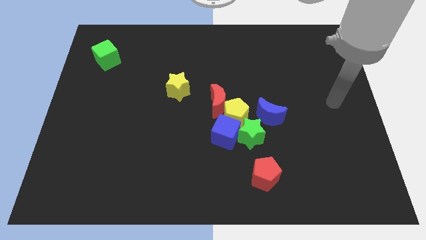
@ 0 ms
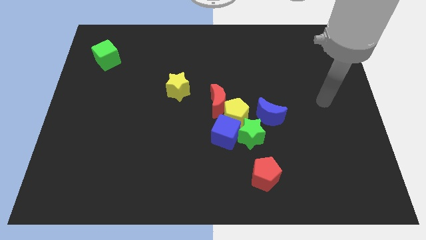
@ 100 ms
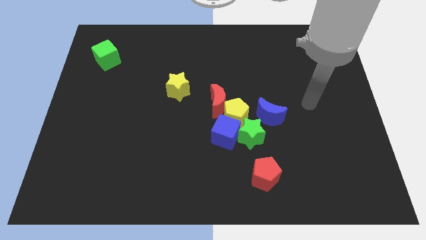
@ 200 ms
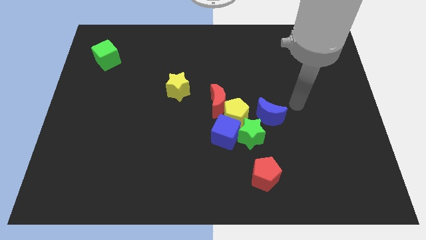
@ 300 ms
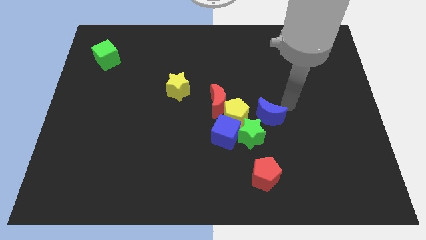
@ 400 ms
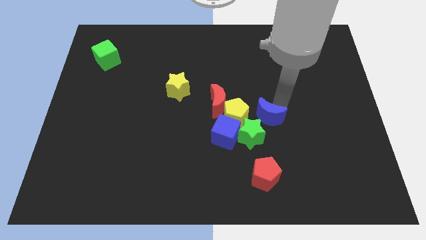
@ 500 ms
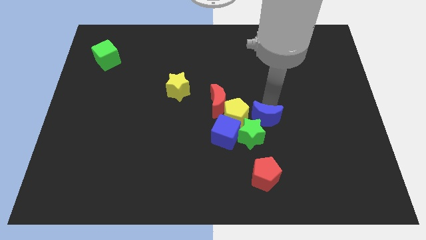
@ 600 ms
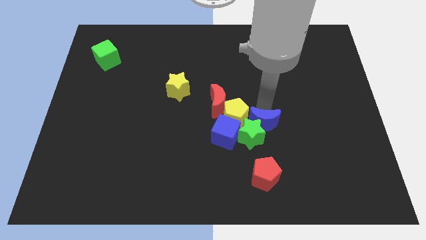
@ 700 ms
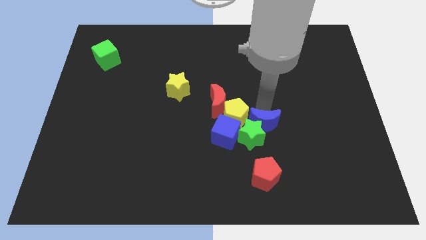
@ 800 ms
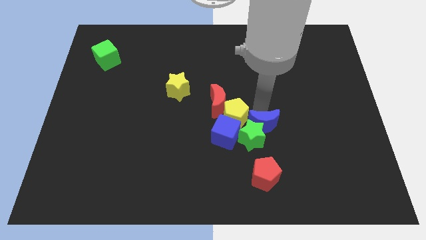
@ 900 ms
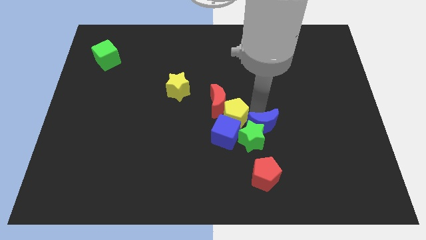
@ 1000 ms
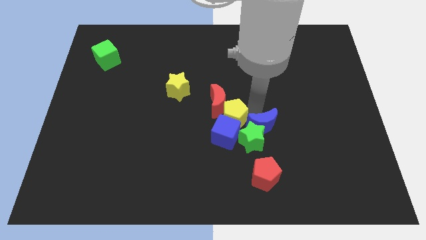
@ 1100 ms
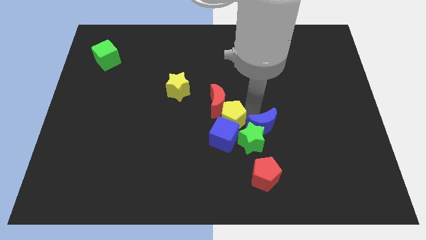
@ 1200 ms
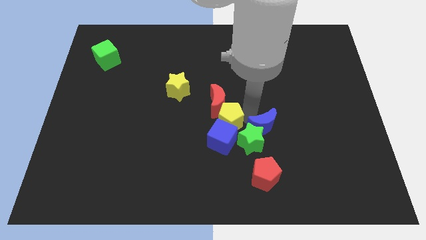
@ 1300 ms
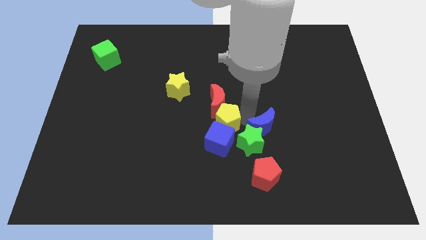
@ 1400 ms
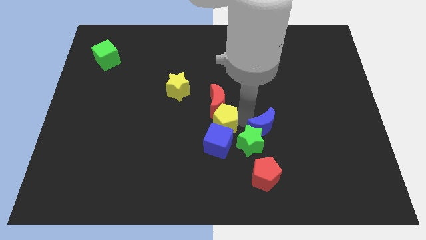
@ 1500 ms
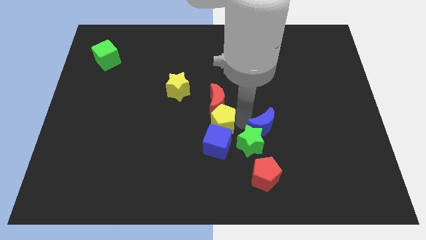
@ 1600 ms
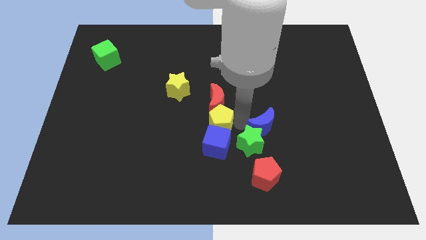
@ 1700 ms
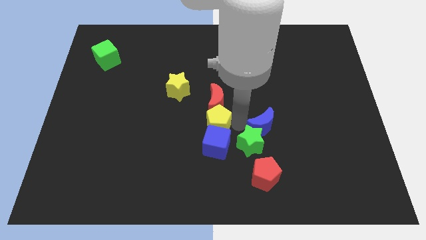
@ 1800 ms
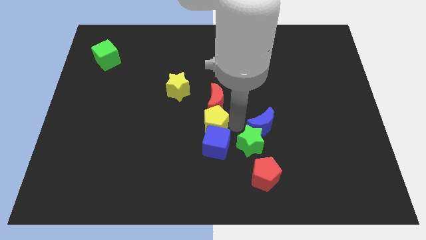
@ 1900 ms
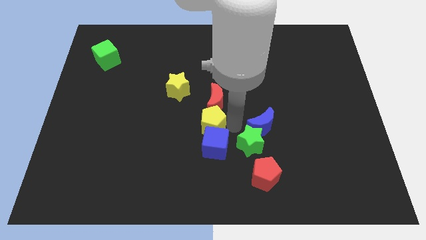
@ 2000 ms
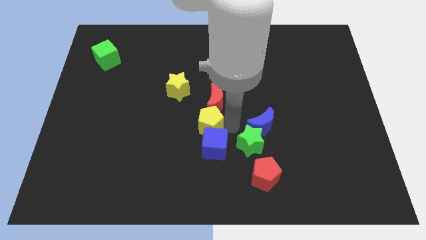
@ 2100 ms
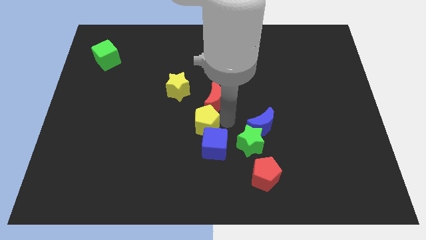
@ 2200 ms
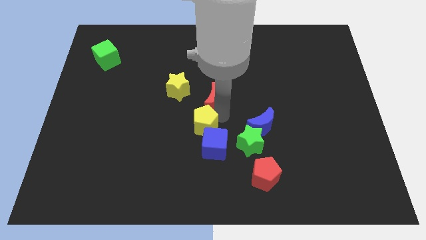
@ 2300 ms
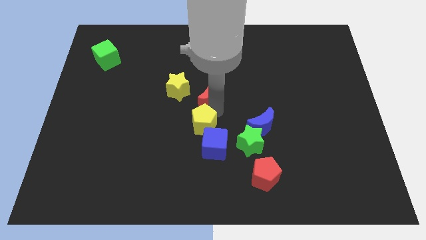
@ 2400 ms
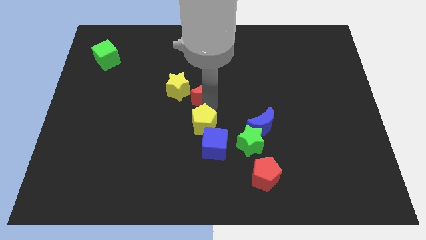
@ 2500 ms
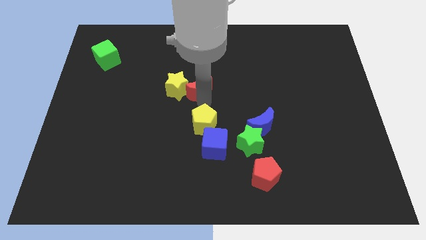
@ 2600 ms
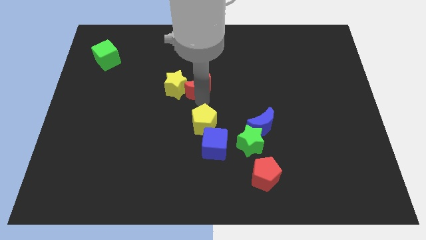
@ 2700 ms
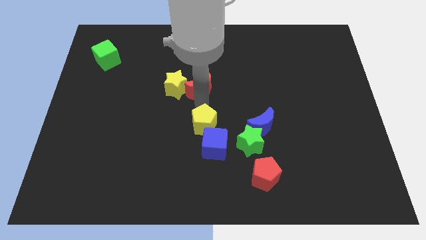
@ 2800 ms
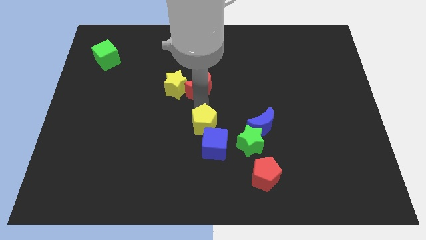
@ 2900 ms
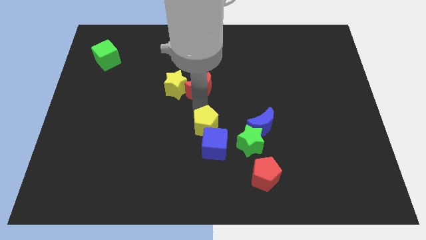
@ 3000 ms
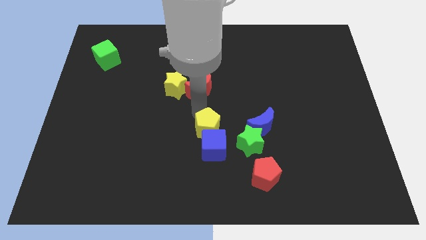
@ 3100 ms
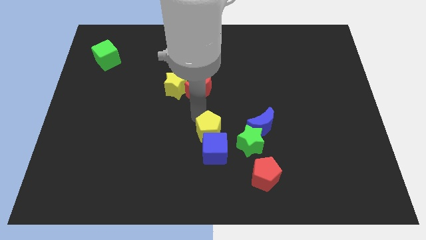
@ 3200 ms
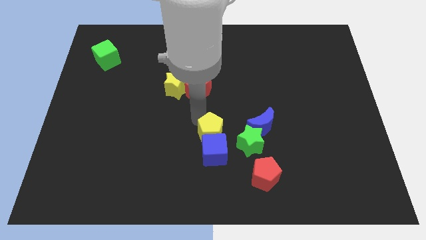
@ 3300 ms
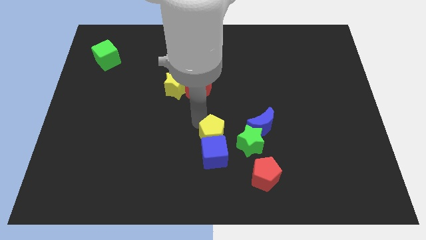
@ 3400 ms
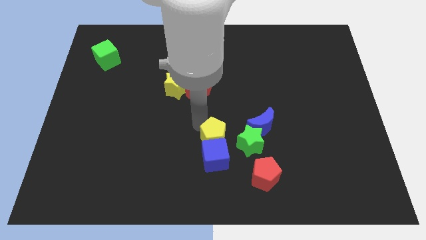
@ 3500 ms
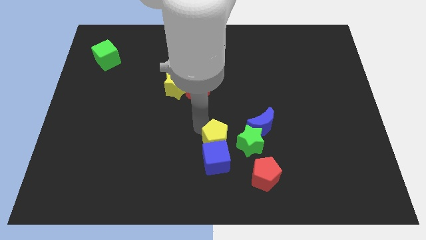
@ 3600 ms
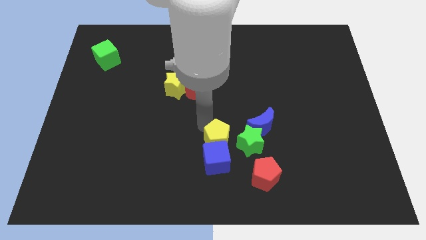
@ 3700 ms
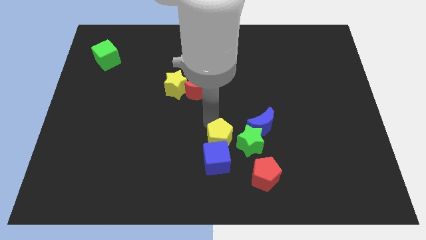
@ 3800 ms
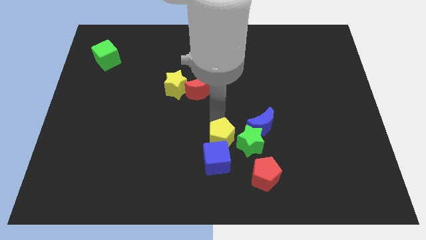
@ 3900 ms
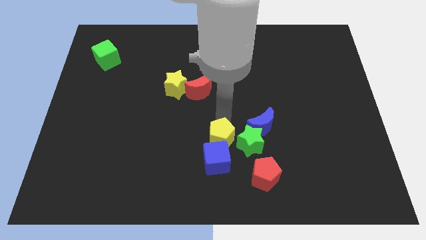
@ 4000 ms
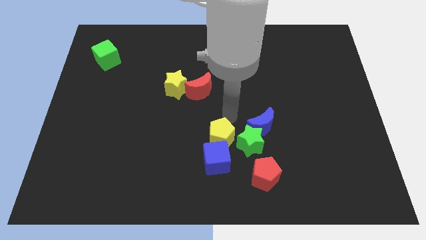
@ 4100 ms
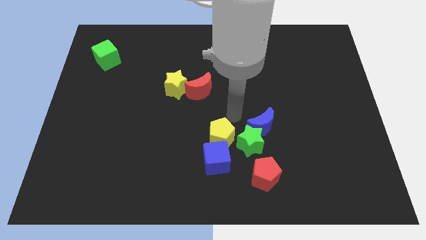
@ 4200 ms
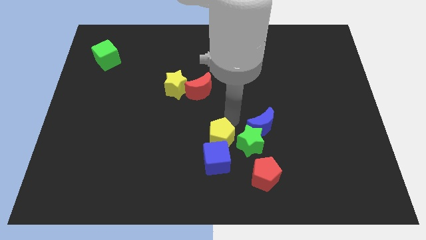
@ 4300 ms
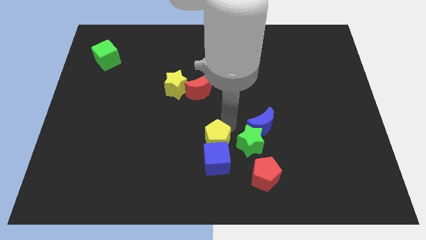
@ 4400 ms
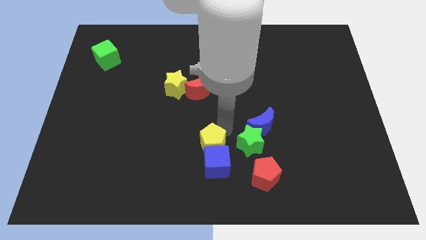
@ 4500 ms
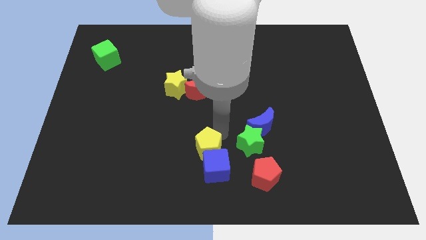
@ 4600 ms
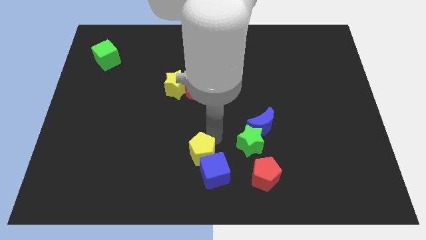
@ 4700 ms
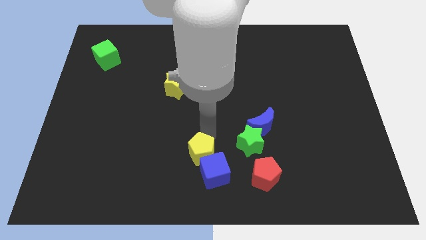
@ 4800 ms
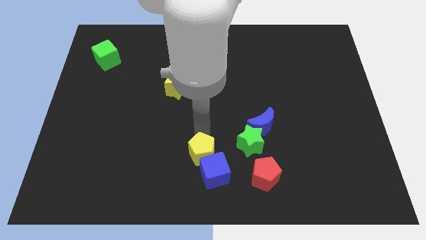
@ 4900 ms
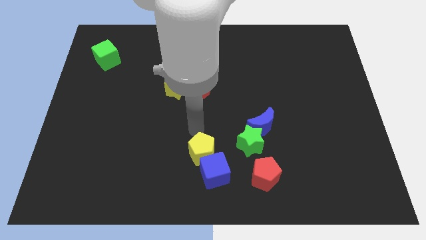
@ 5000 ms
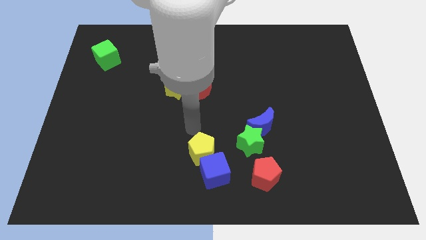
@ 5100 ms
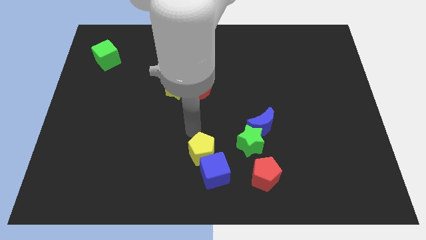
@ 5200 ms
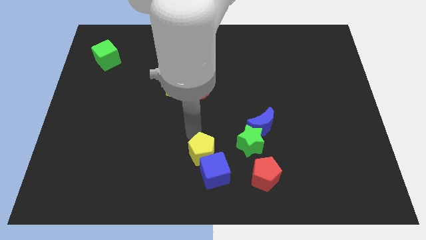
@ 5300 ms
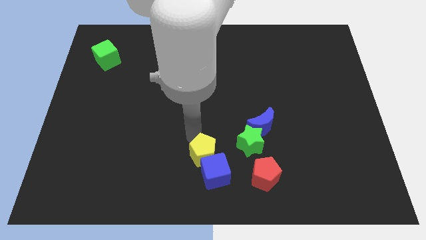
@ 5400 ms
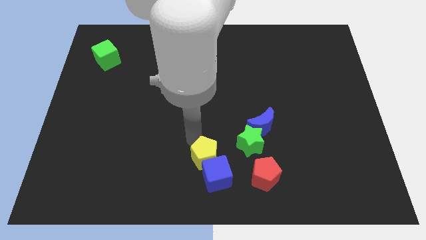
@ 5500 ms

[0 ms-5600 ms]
push the yellow pentagon to the left side of the red pentagon

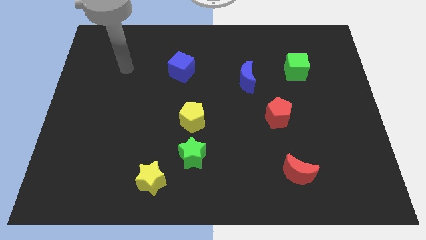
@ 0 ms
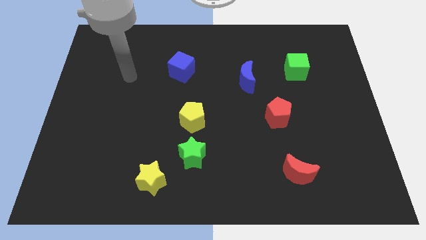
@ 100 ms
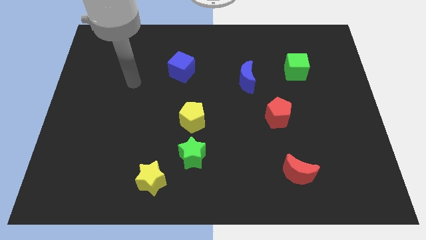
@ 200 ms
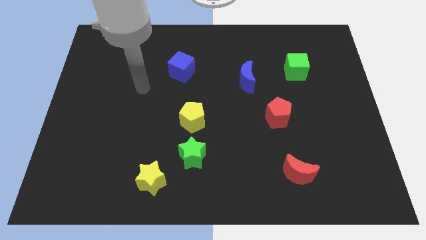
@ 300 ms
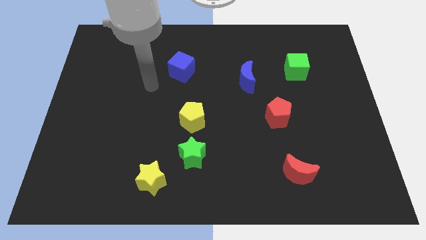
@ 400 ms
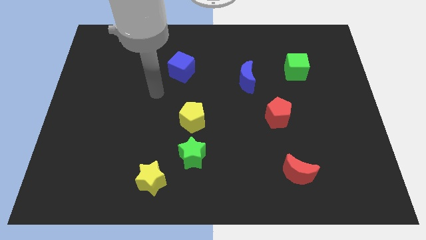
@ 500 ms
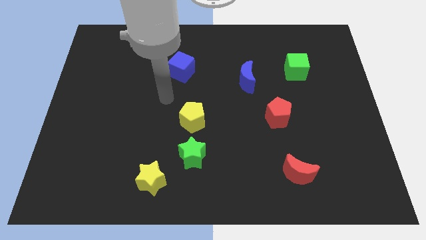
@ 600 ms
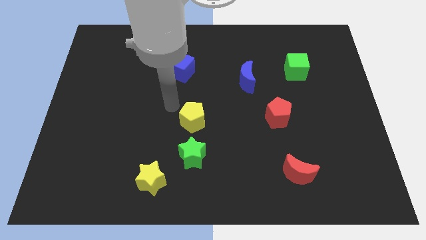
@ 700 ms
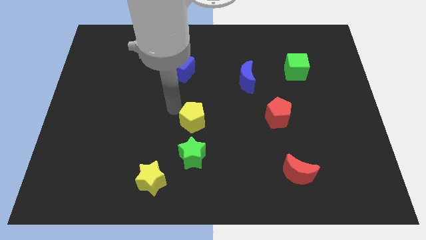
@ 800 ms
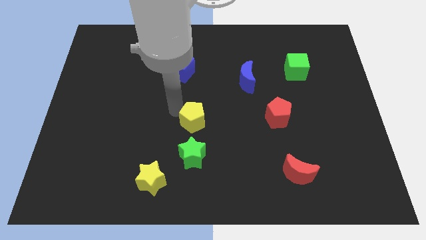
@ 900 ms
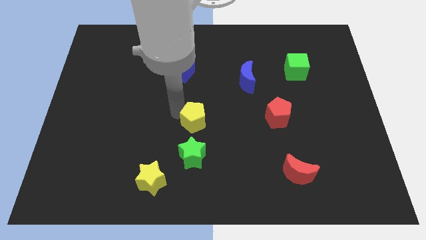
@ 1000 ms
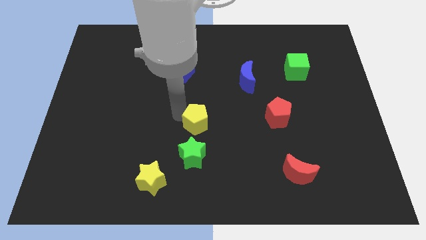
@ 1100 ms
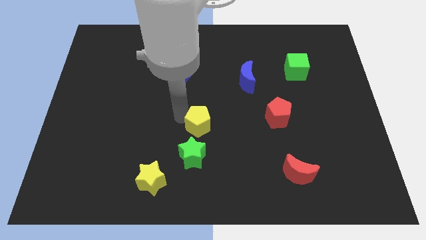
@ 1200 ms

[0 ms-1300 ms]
slide the yellow pentagon diagonally up and to the right of the green star

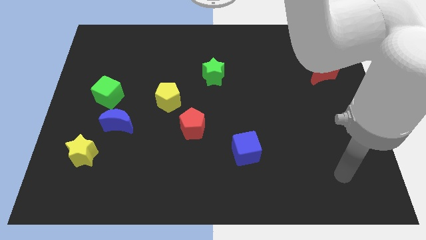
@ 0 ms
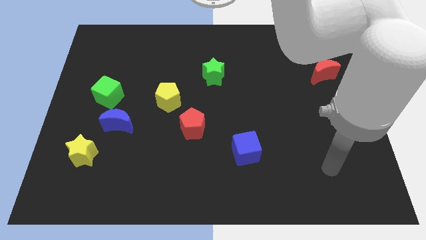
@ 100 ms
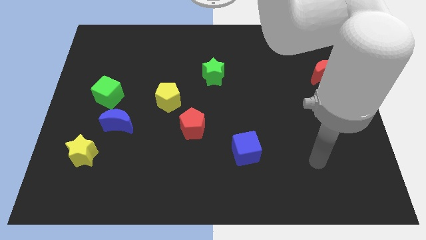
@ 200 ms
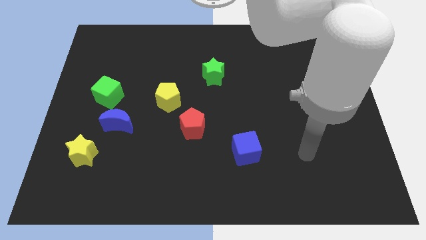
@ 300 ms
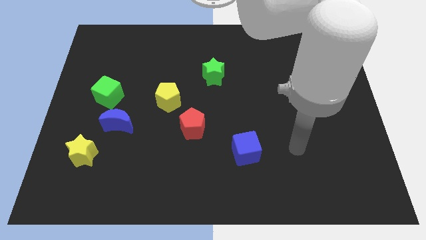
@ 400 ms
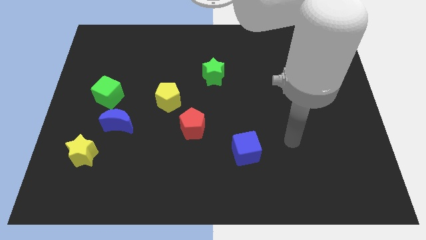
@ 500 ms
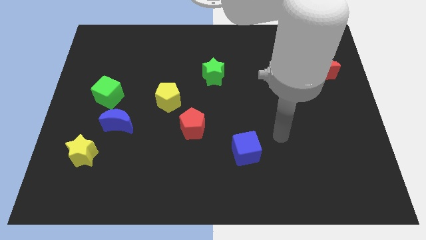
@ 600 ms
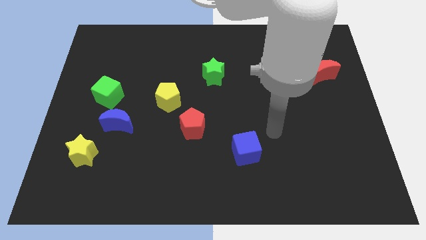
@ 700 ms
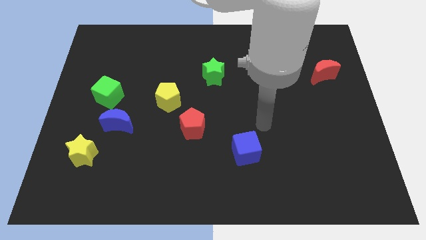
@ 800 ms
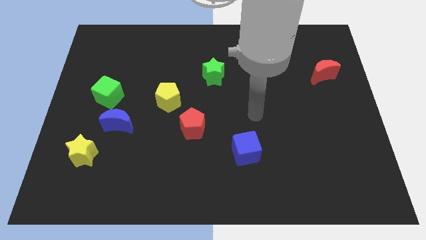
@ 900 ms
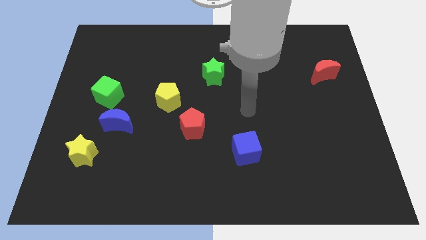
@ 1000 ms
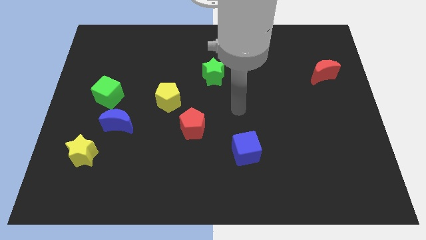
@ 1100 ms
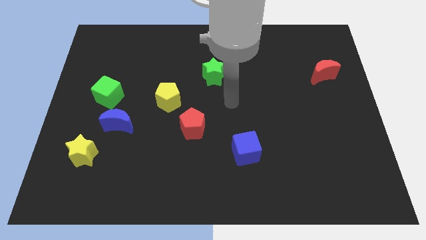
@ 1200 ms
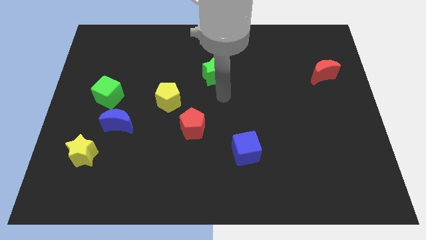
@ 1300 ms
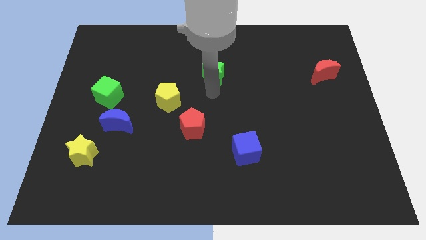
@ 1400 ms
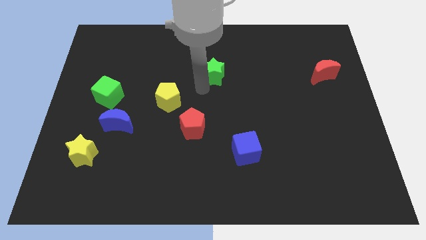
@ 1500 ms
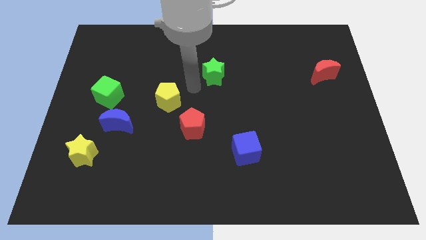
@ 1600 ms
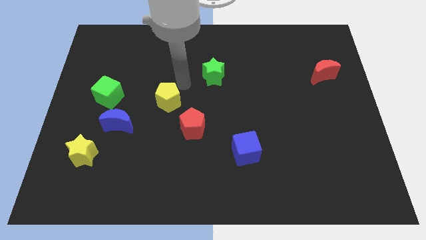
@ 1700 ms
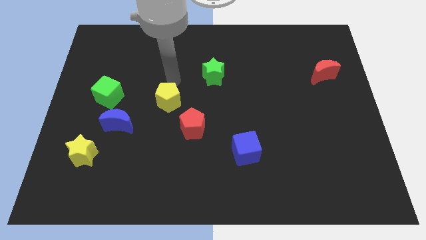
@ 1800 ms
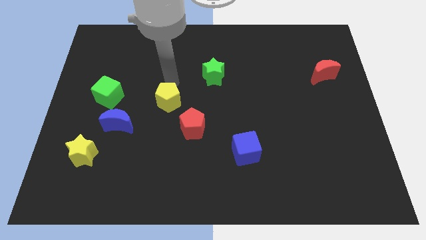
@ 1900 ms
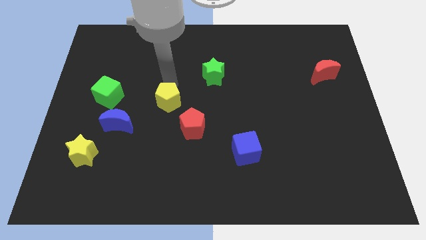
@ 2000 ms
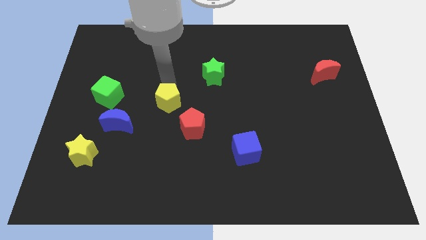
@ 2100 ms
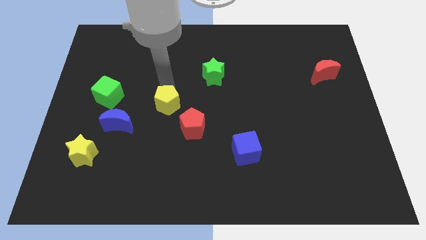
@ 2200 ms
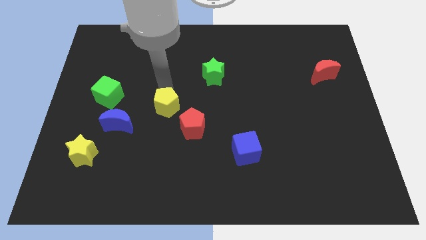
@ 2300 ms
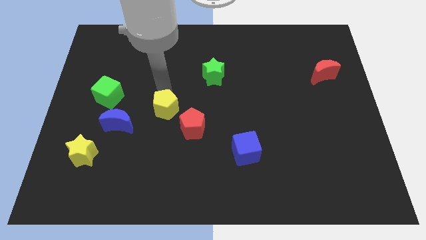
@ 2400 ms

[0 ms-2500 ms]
move the yellow pentagon right of the blue moon
